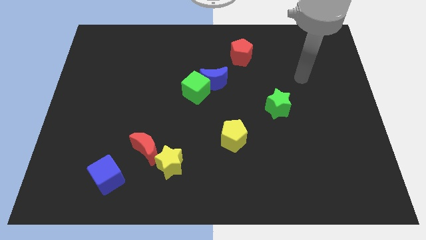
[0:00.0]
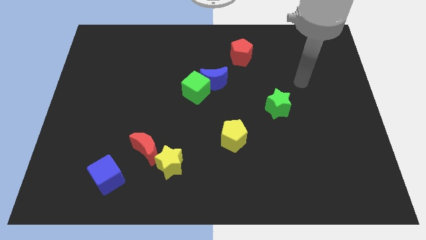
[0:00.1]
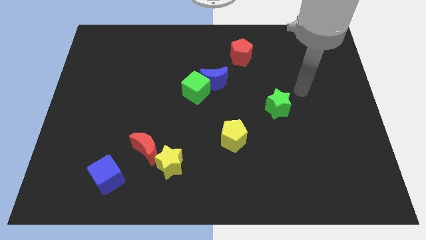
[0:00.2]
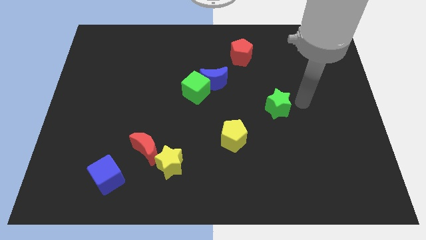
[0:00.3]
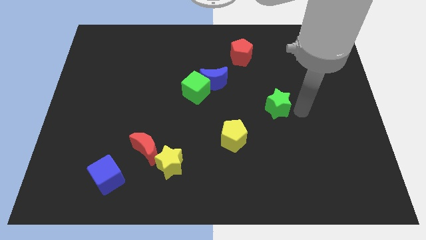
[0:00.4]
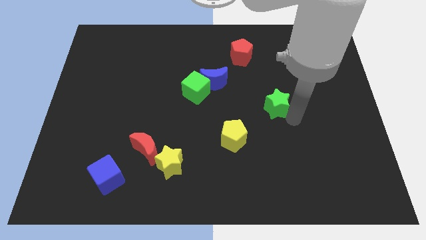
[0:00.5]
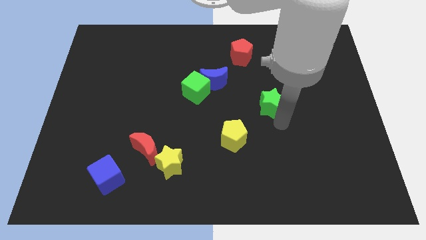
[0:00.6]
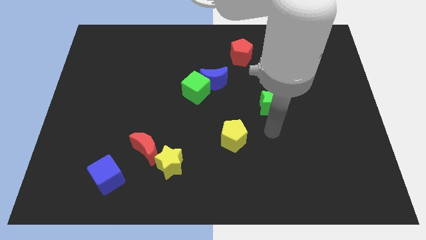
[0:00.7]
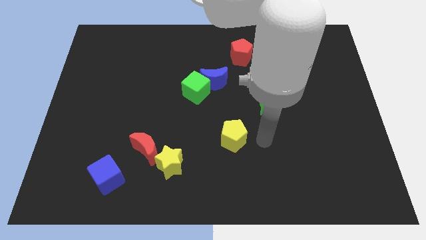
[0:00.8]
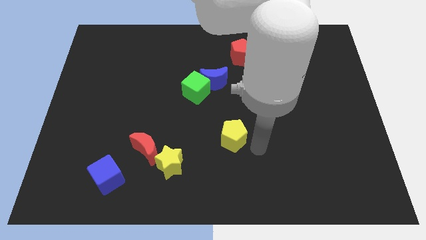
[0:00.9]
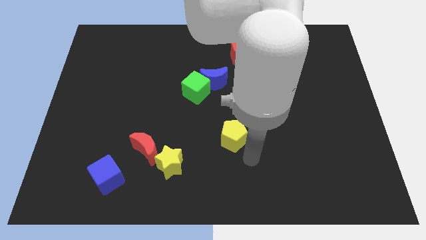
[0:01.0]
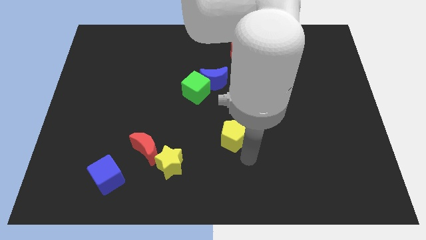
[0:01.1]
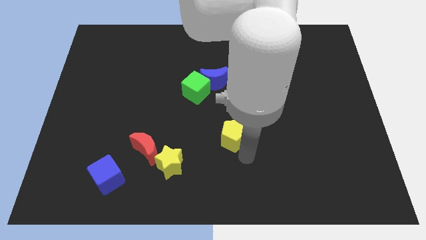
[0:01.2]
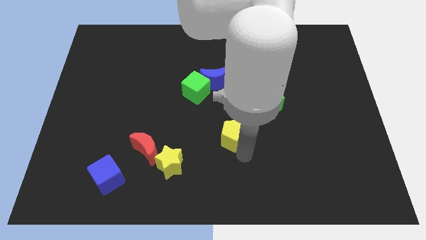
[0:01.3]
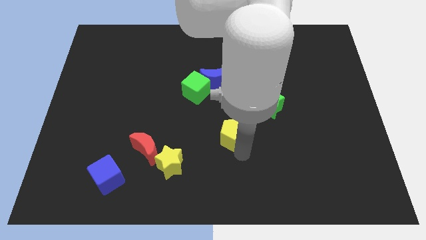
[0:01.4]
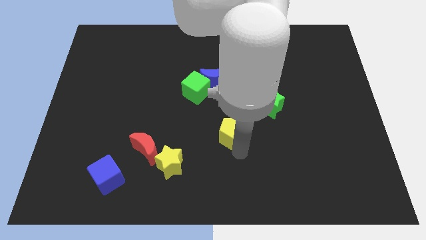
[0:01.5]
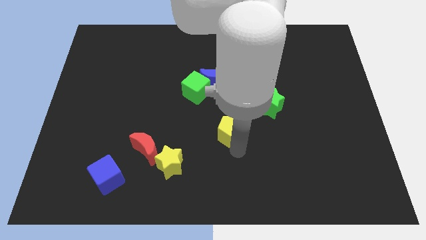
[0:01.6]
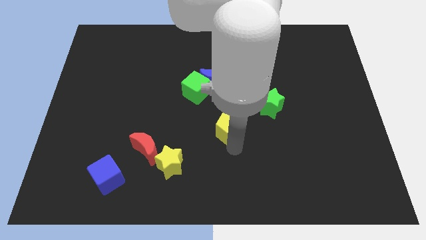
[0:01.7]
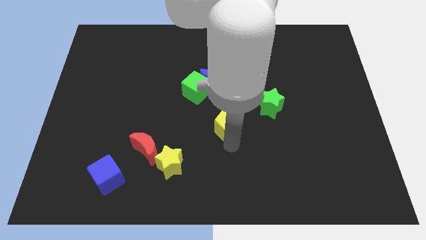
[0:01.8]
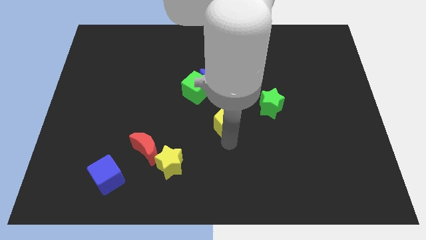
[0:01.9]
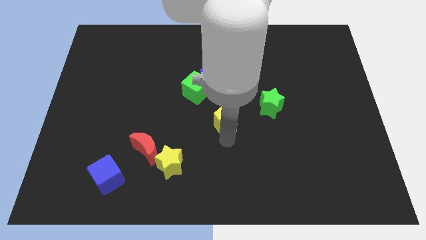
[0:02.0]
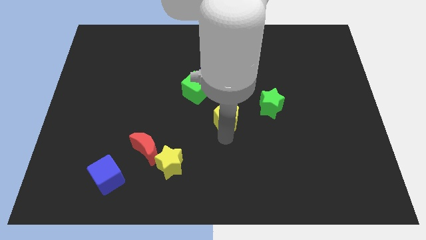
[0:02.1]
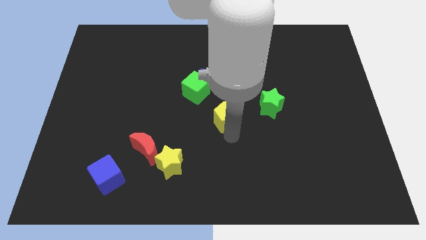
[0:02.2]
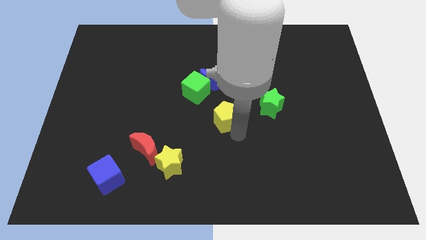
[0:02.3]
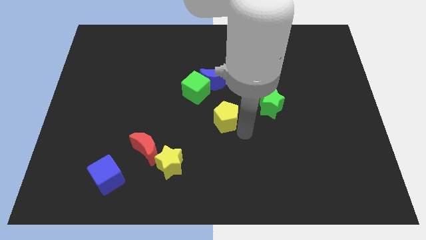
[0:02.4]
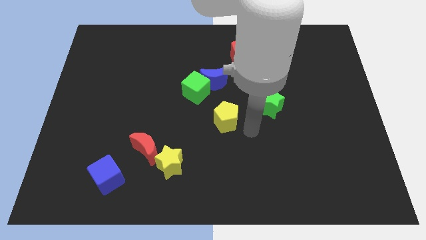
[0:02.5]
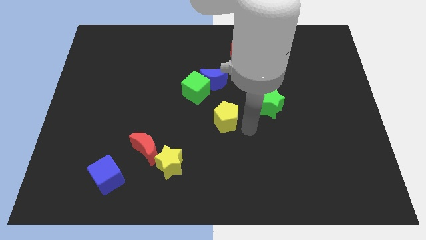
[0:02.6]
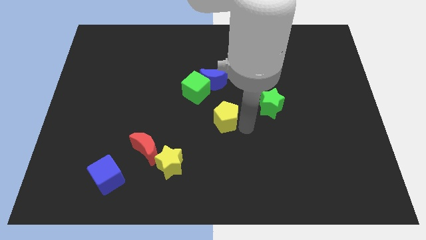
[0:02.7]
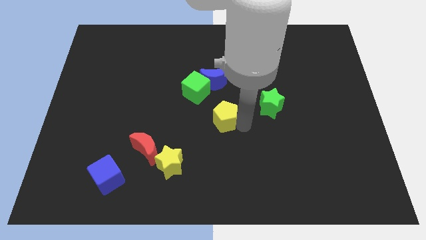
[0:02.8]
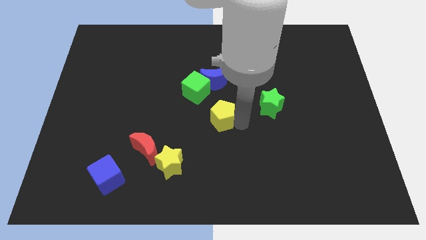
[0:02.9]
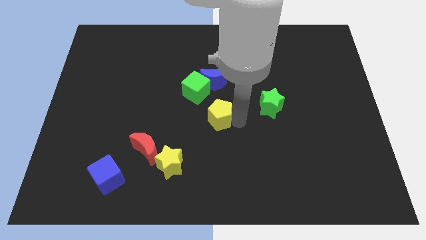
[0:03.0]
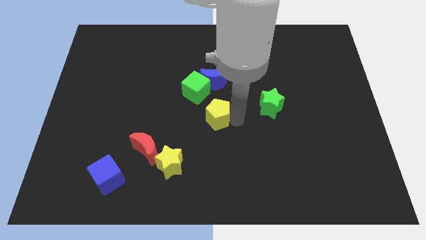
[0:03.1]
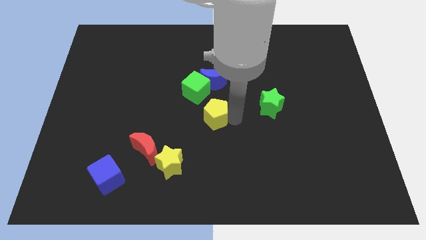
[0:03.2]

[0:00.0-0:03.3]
move the yellow pentagon a bit upwards and left diagonally

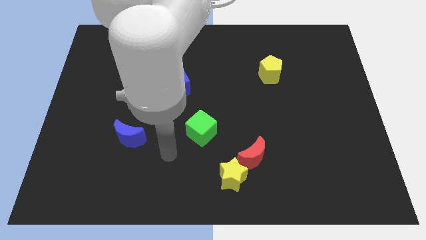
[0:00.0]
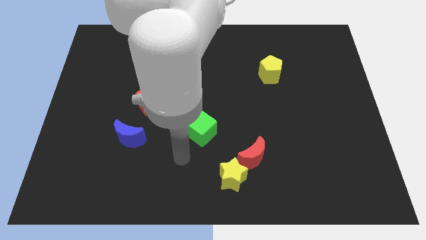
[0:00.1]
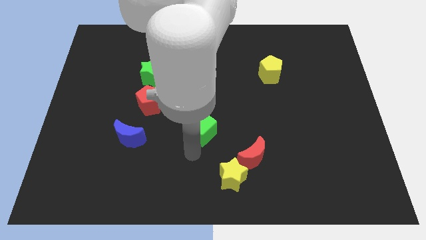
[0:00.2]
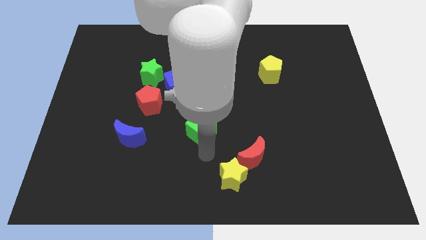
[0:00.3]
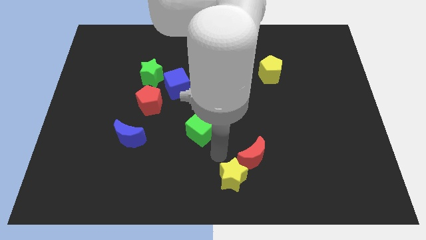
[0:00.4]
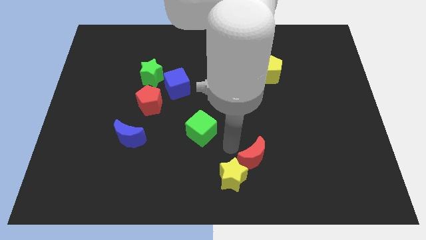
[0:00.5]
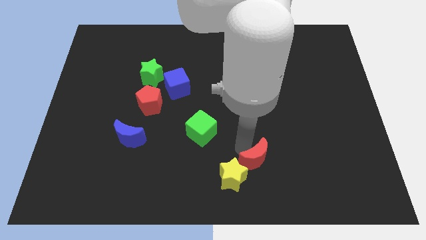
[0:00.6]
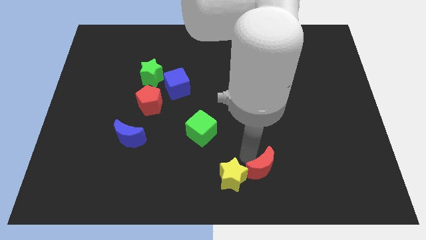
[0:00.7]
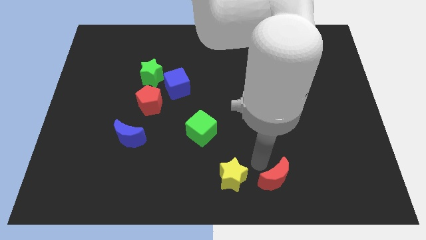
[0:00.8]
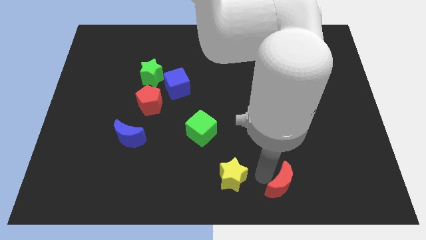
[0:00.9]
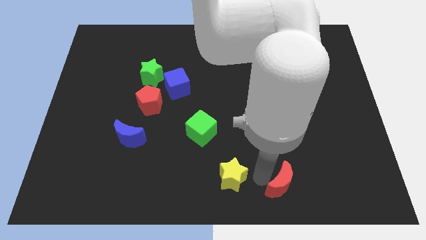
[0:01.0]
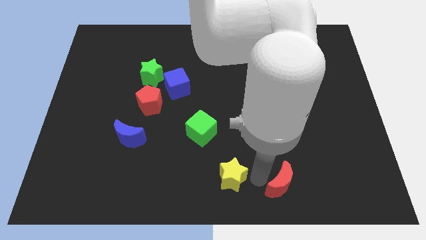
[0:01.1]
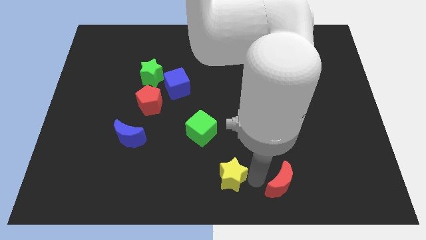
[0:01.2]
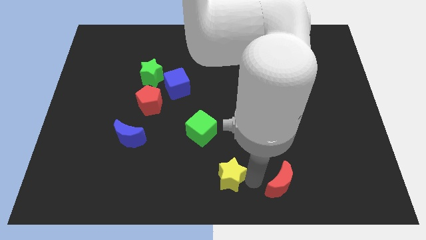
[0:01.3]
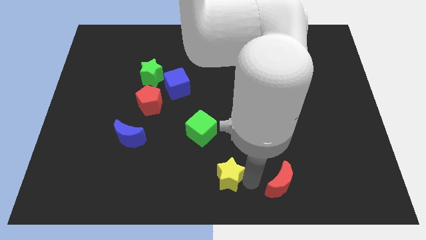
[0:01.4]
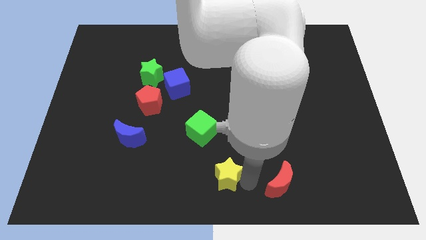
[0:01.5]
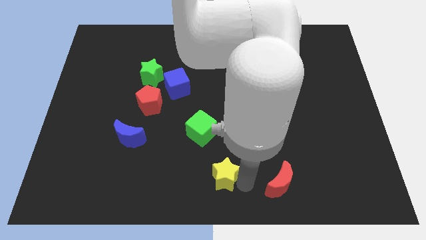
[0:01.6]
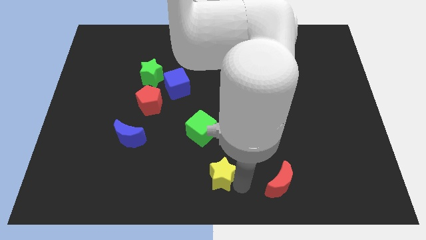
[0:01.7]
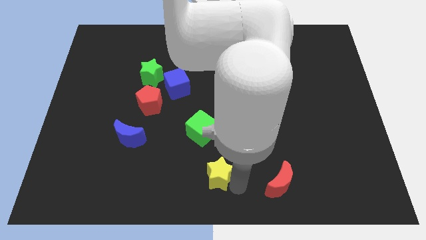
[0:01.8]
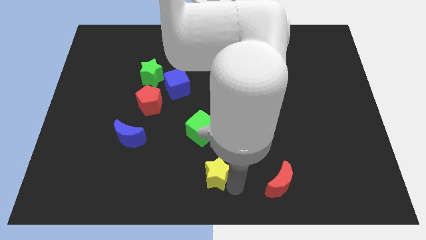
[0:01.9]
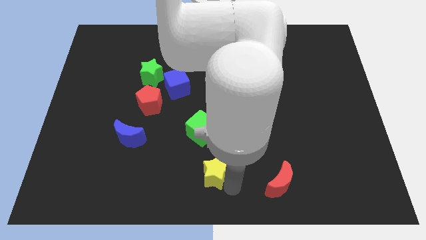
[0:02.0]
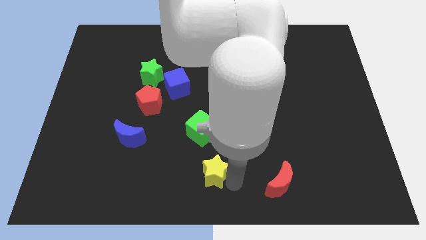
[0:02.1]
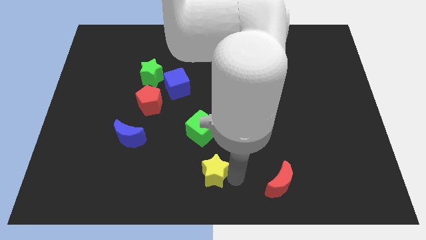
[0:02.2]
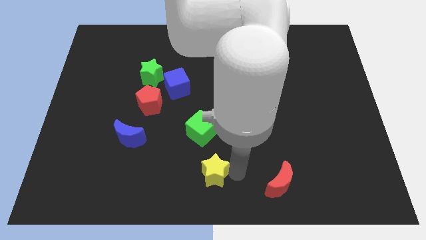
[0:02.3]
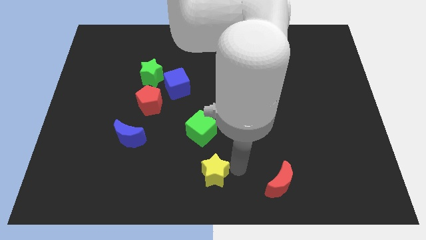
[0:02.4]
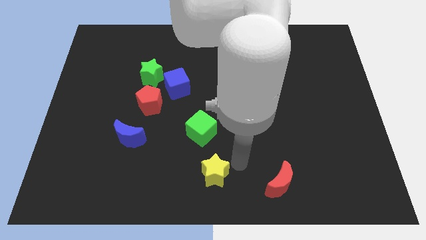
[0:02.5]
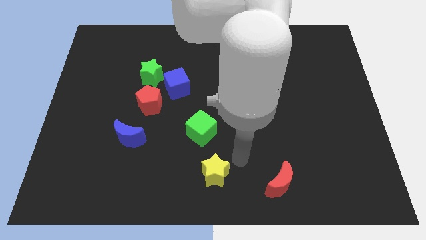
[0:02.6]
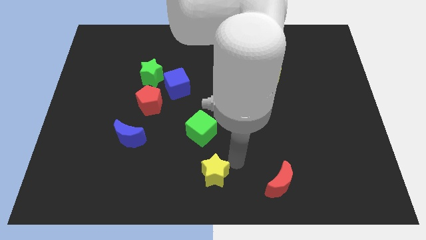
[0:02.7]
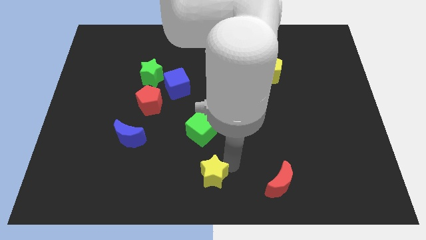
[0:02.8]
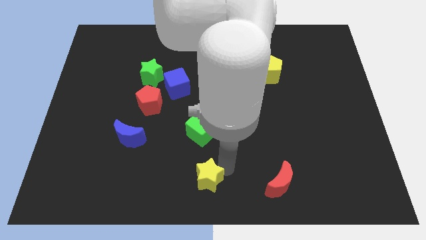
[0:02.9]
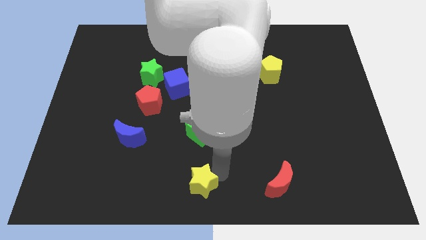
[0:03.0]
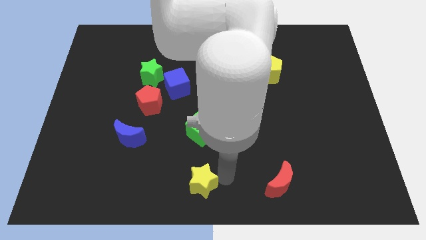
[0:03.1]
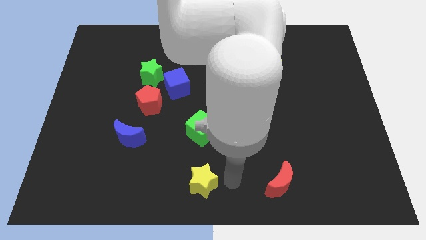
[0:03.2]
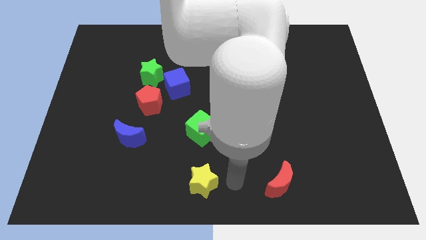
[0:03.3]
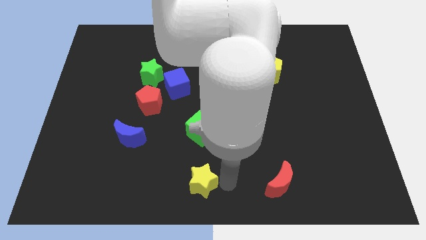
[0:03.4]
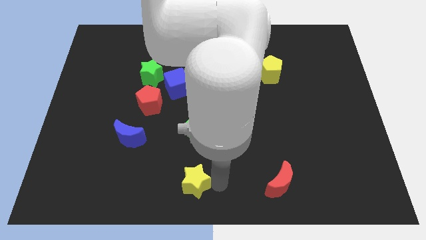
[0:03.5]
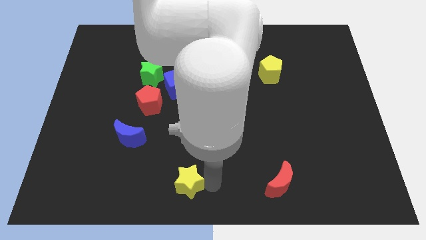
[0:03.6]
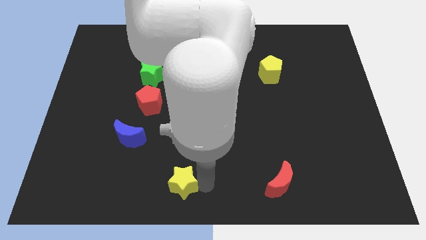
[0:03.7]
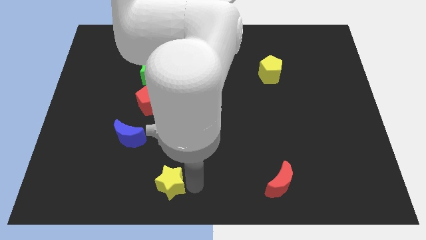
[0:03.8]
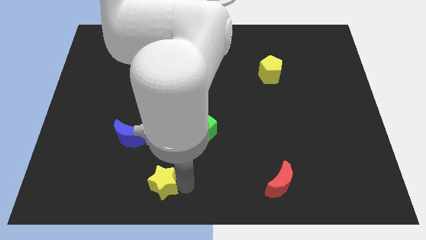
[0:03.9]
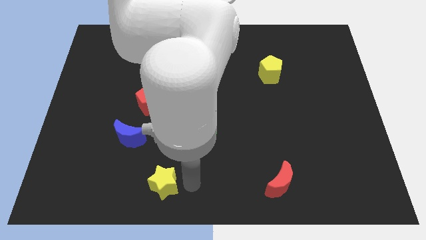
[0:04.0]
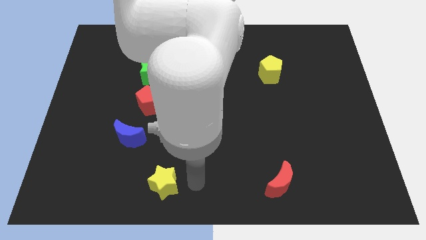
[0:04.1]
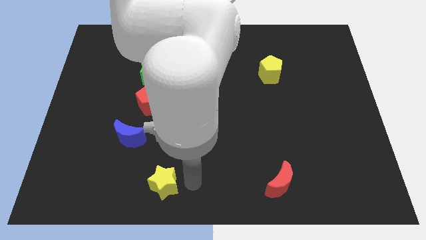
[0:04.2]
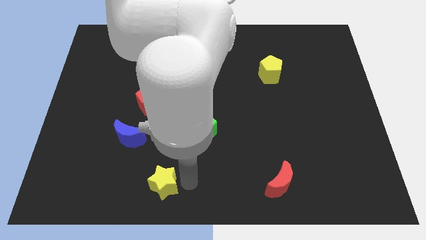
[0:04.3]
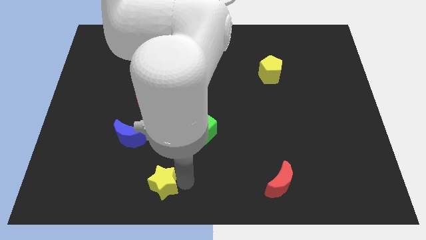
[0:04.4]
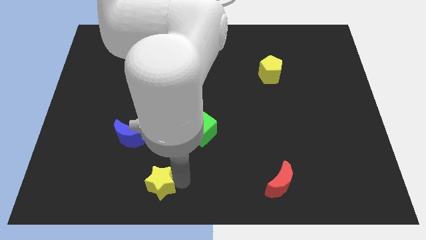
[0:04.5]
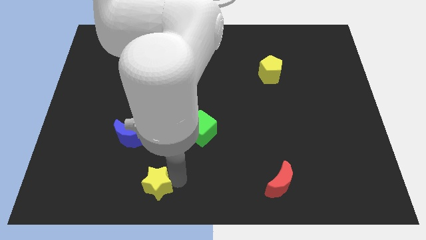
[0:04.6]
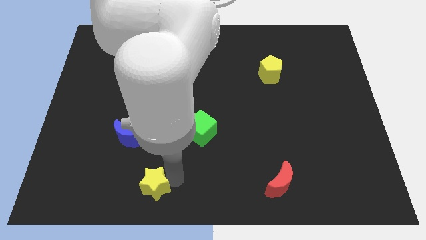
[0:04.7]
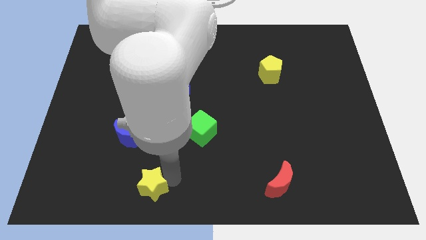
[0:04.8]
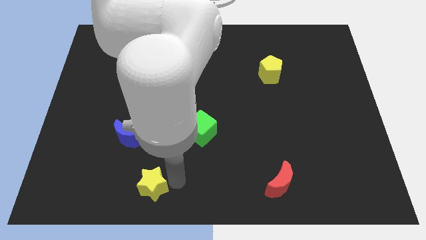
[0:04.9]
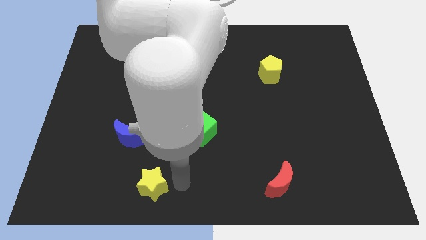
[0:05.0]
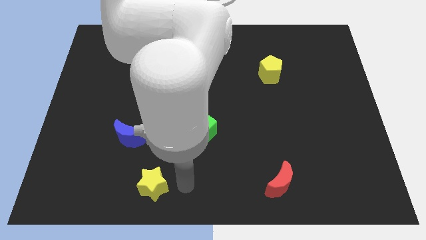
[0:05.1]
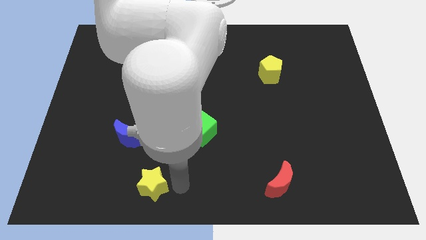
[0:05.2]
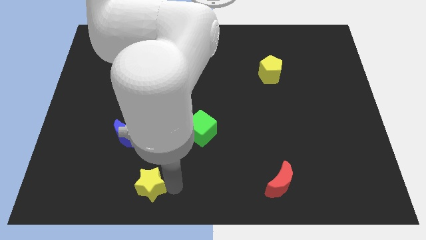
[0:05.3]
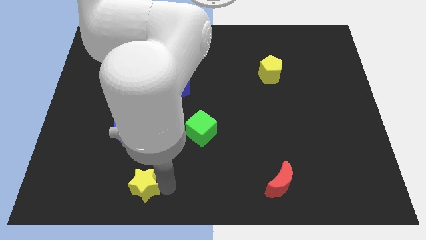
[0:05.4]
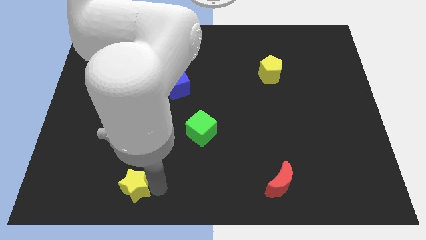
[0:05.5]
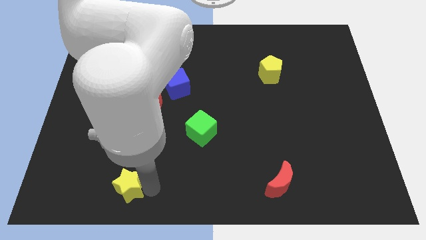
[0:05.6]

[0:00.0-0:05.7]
push the yellow star left
